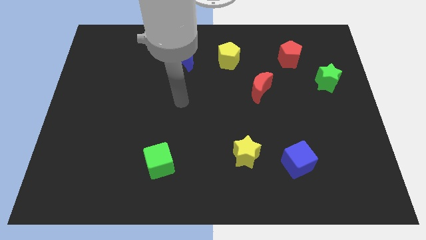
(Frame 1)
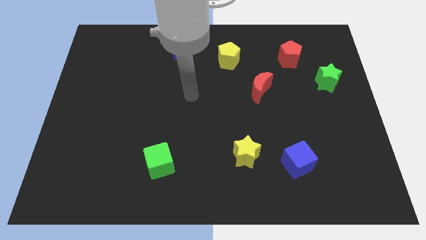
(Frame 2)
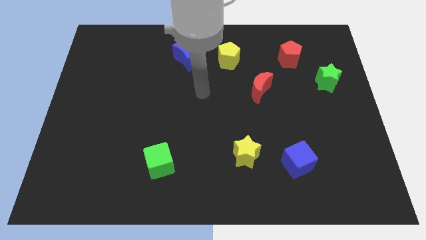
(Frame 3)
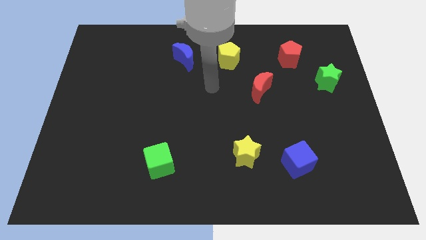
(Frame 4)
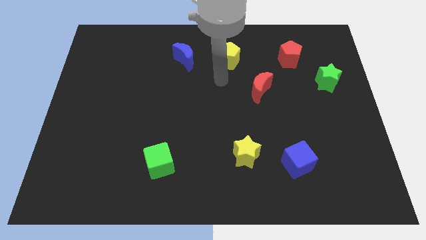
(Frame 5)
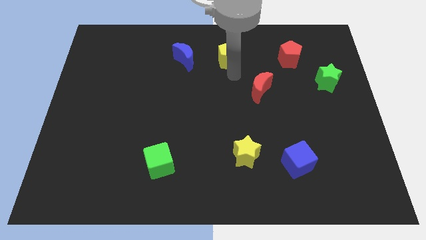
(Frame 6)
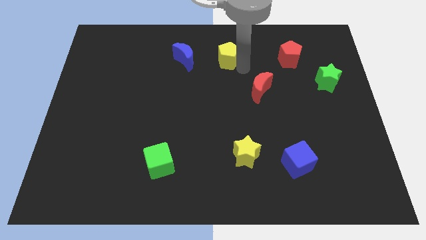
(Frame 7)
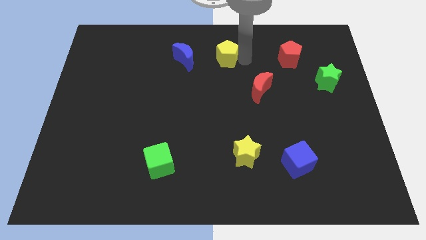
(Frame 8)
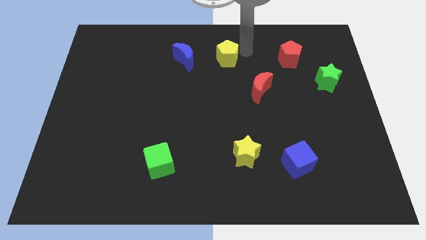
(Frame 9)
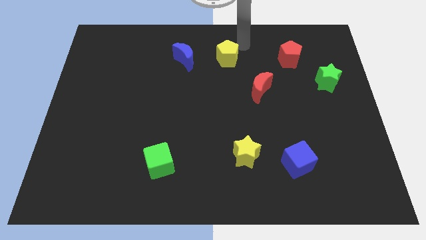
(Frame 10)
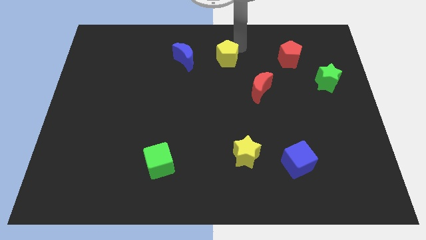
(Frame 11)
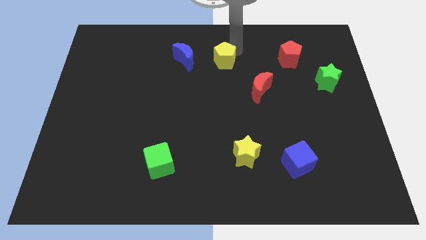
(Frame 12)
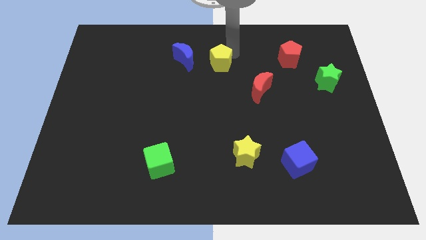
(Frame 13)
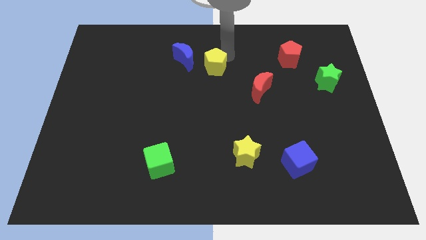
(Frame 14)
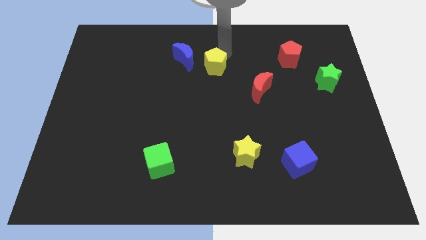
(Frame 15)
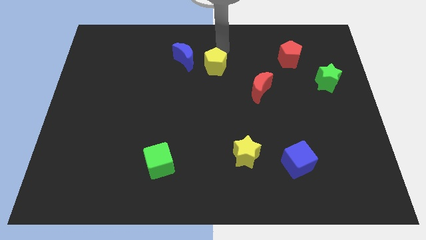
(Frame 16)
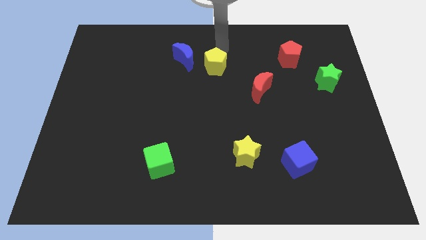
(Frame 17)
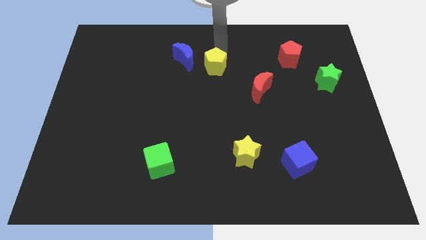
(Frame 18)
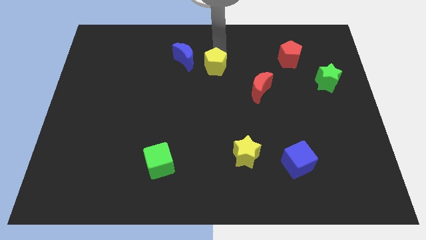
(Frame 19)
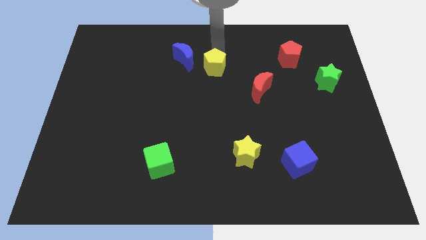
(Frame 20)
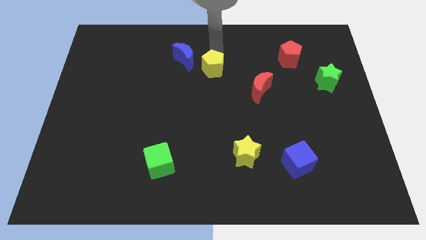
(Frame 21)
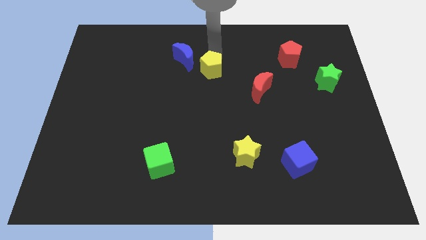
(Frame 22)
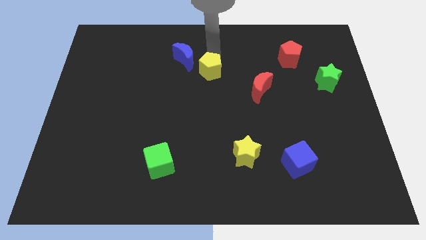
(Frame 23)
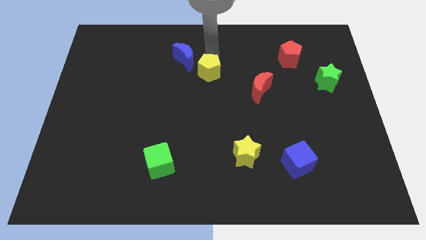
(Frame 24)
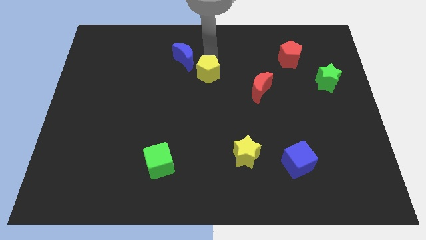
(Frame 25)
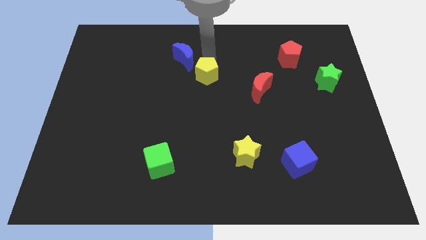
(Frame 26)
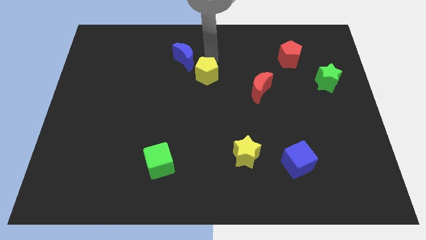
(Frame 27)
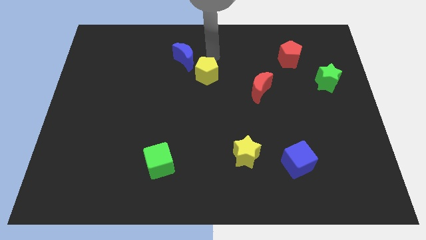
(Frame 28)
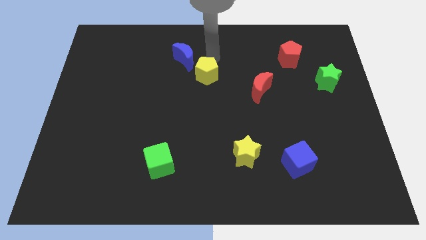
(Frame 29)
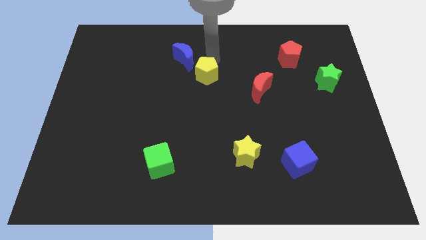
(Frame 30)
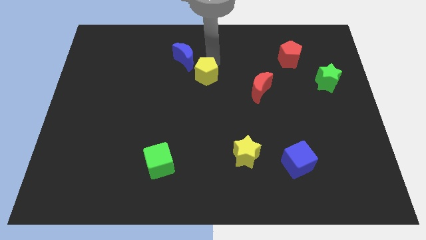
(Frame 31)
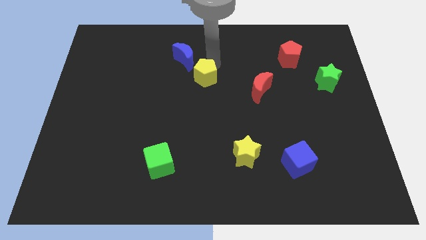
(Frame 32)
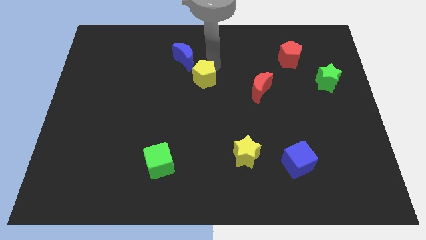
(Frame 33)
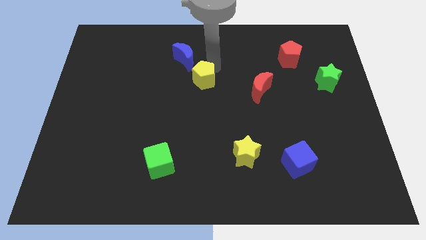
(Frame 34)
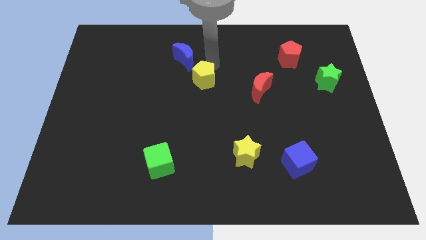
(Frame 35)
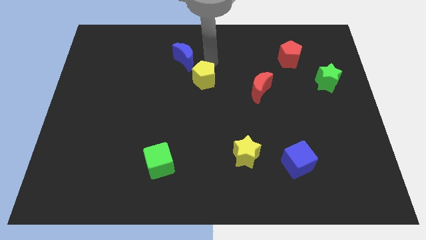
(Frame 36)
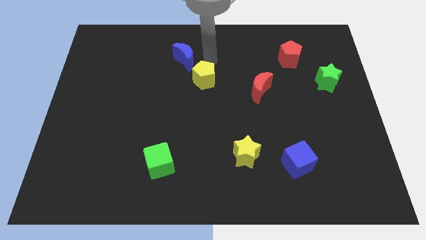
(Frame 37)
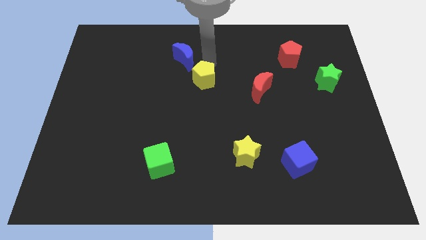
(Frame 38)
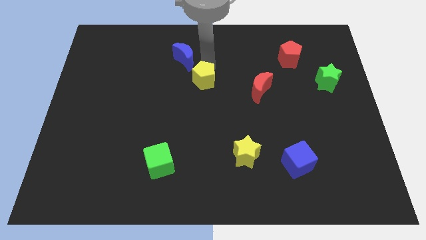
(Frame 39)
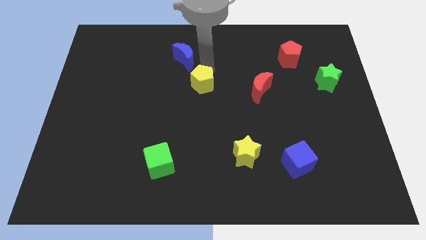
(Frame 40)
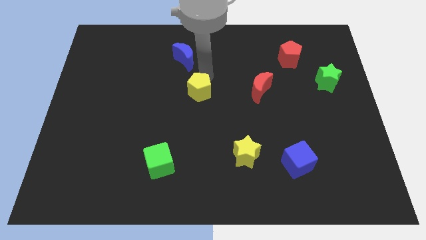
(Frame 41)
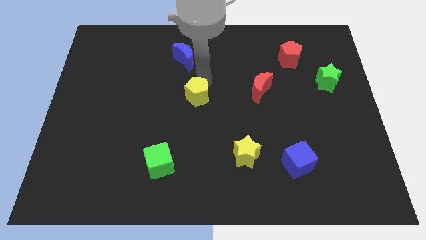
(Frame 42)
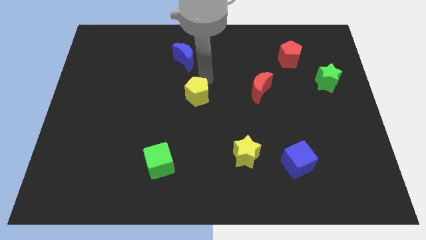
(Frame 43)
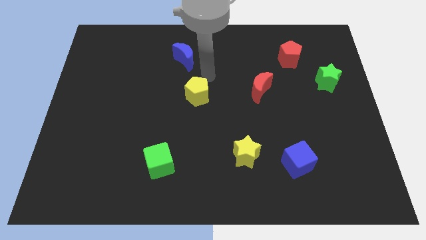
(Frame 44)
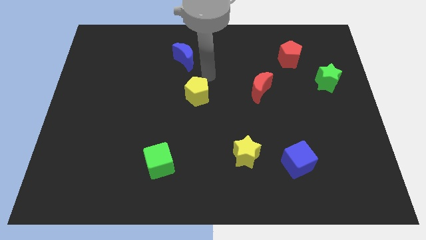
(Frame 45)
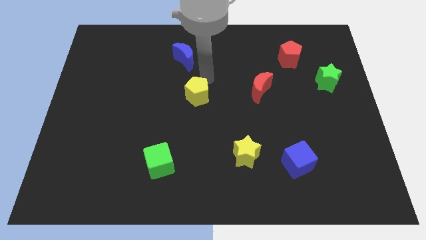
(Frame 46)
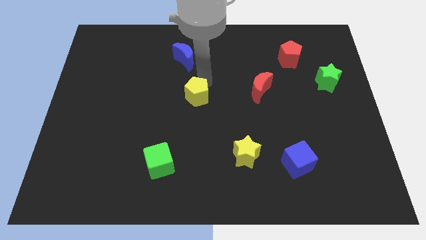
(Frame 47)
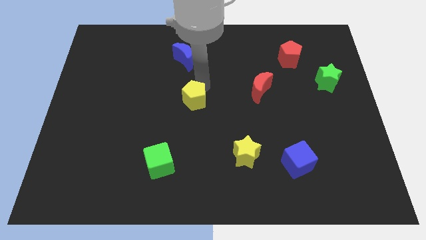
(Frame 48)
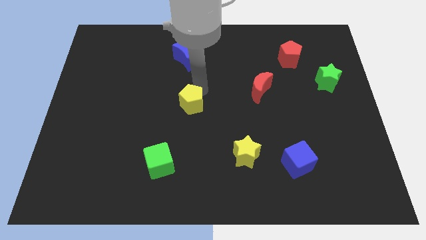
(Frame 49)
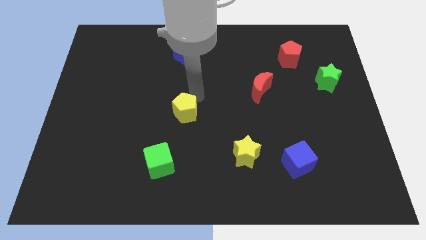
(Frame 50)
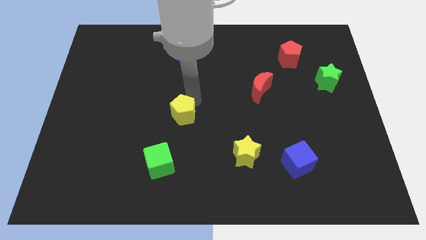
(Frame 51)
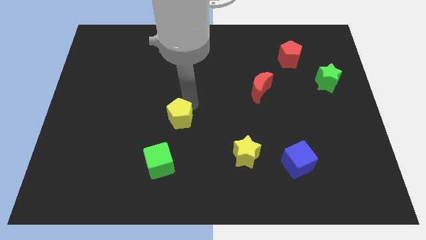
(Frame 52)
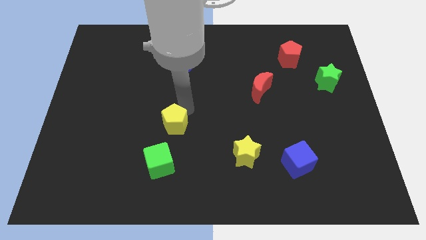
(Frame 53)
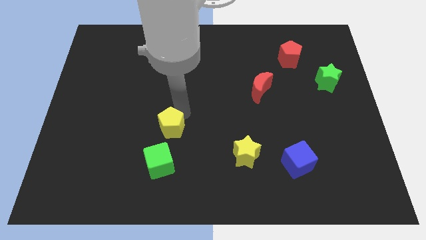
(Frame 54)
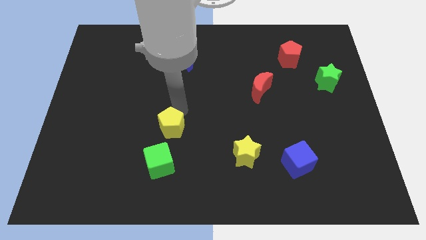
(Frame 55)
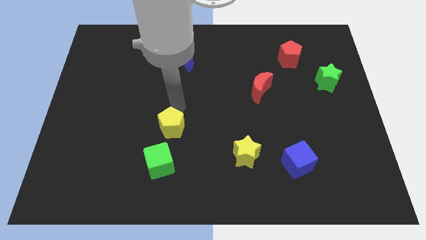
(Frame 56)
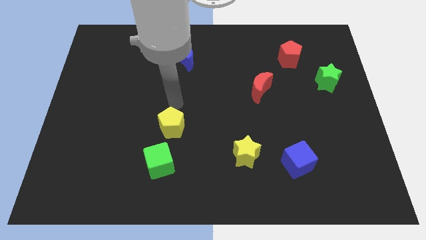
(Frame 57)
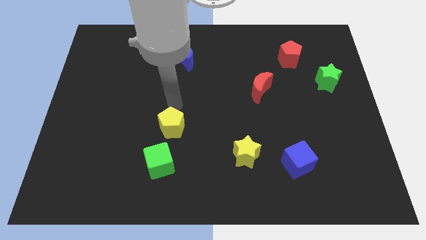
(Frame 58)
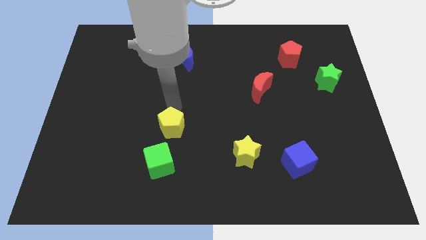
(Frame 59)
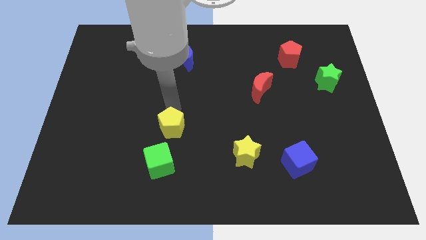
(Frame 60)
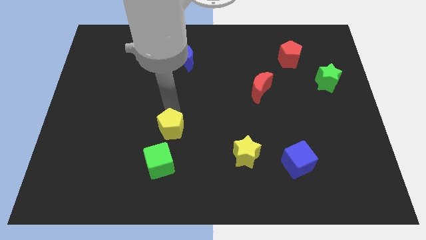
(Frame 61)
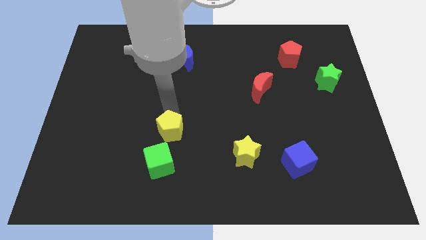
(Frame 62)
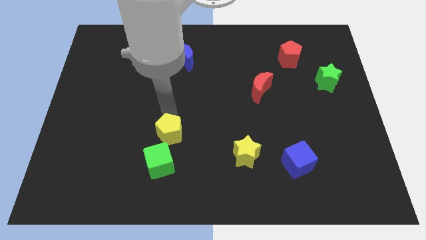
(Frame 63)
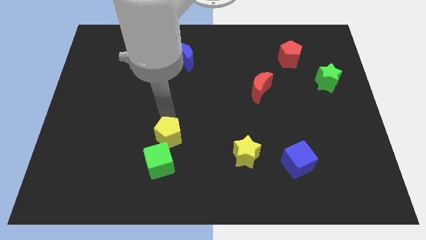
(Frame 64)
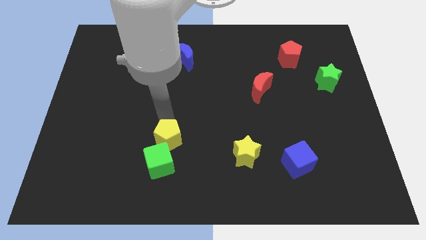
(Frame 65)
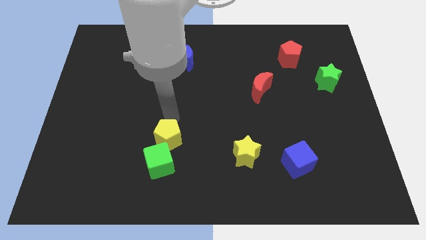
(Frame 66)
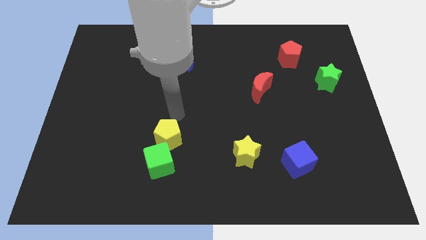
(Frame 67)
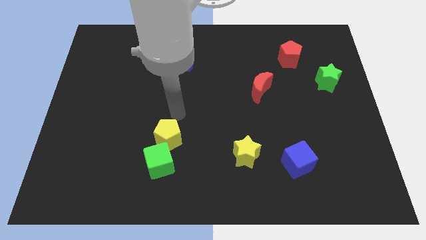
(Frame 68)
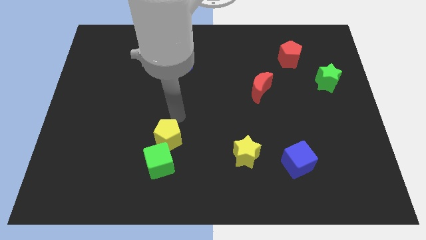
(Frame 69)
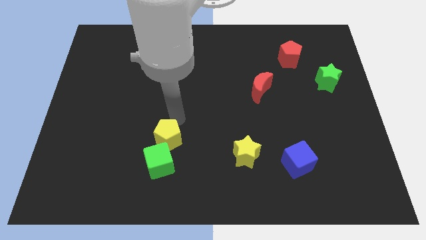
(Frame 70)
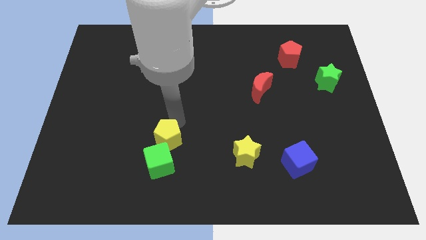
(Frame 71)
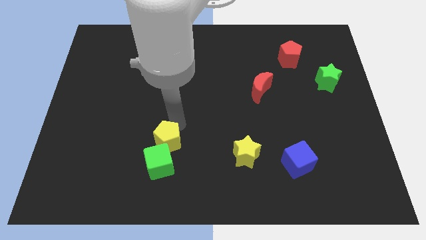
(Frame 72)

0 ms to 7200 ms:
slide the yellow pentagon close to the green cube

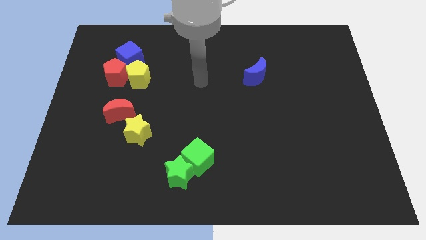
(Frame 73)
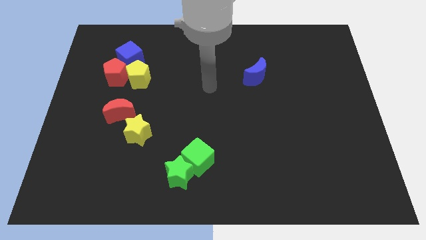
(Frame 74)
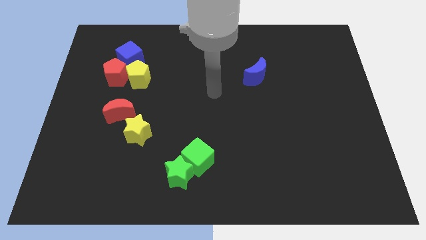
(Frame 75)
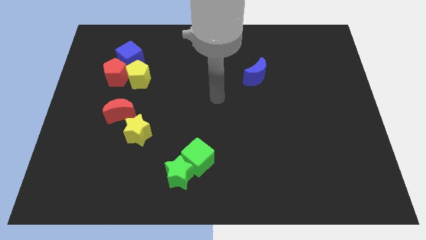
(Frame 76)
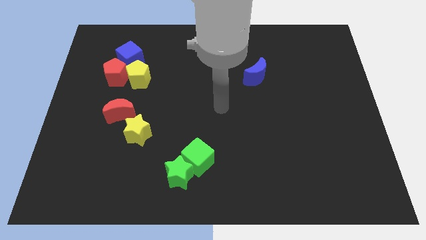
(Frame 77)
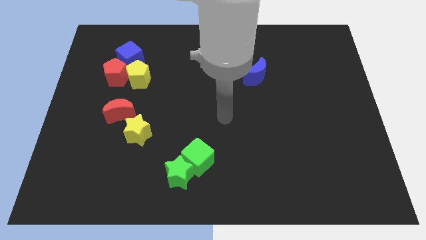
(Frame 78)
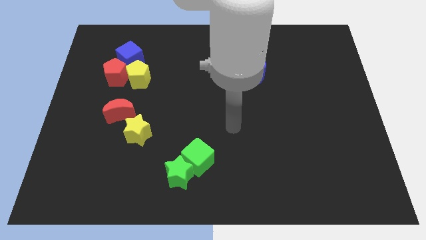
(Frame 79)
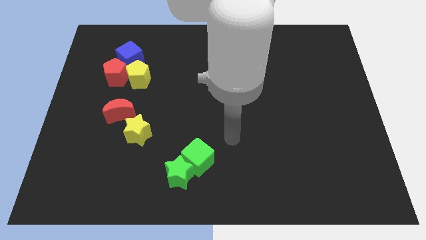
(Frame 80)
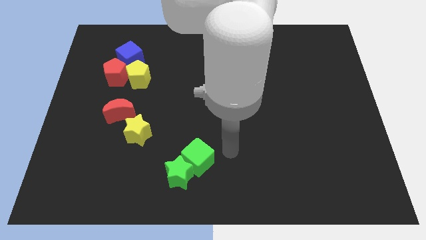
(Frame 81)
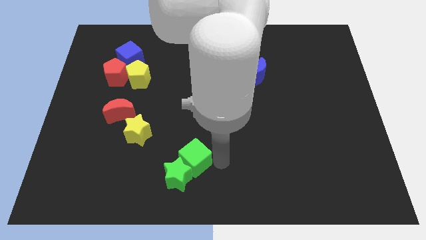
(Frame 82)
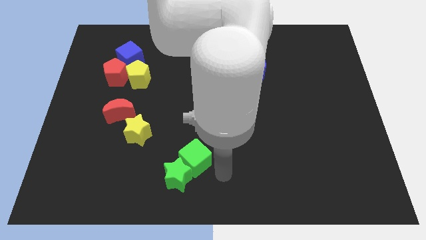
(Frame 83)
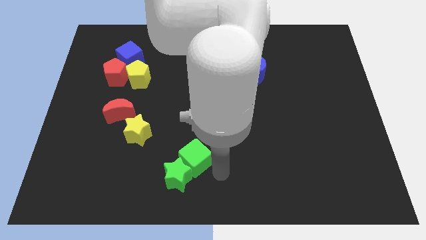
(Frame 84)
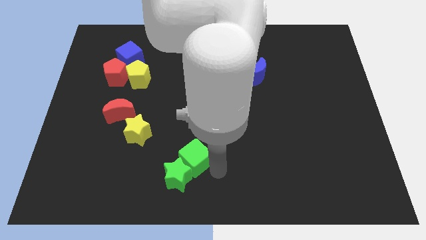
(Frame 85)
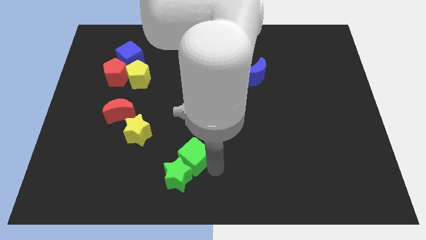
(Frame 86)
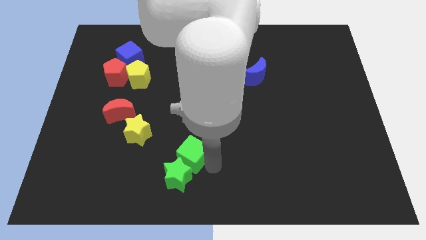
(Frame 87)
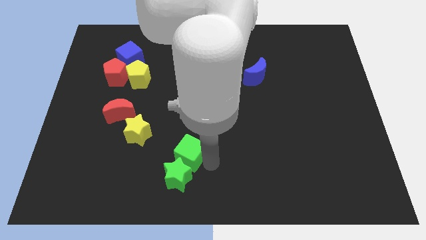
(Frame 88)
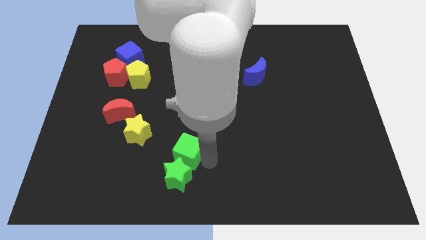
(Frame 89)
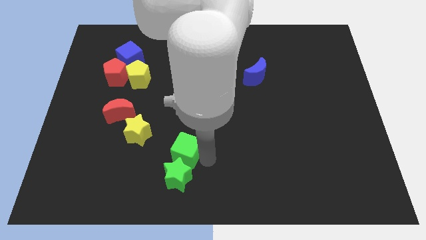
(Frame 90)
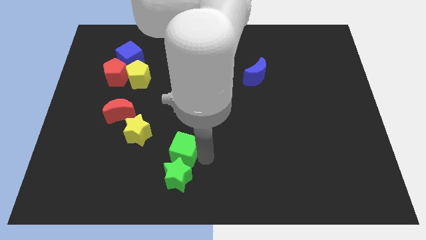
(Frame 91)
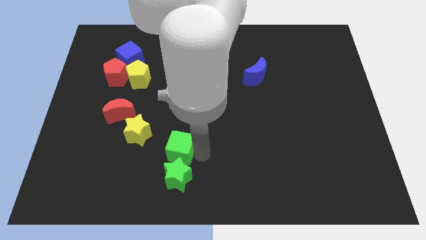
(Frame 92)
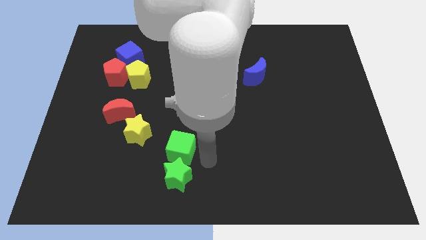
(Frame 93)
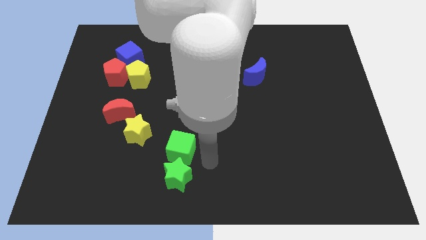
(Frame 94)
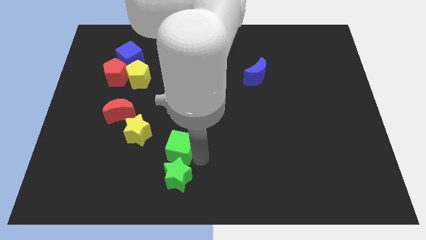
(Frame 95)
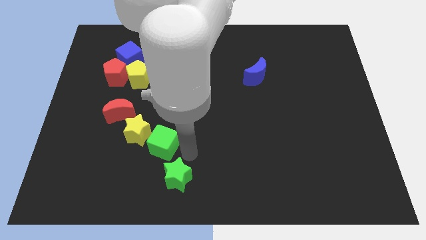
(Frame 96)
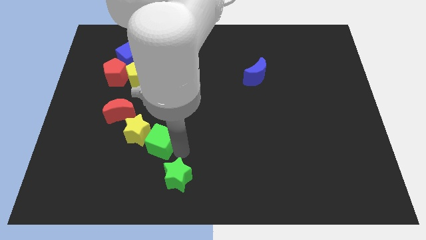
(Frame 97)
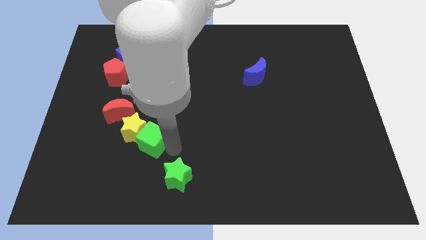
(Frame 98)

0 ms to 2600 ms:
move the green cube towards the yellow star
